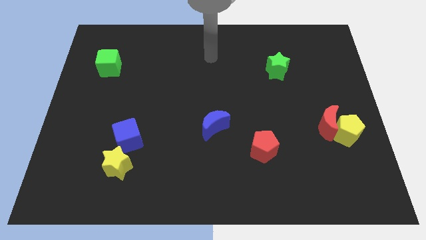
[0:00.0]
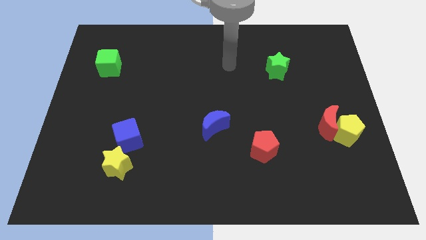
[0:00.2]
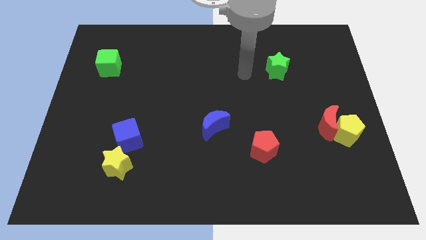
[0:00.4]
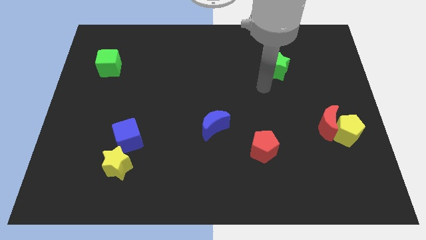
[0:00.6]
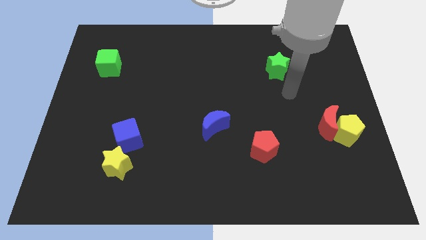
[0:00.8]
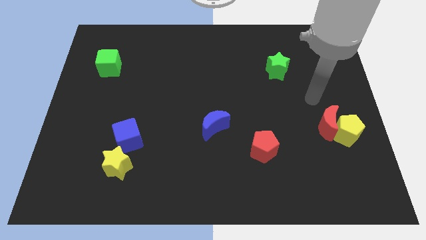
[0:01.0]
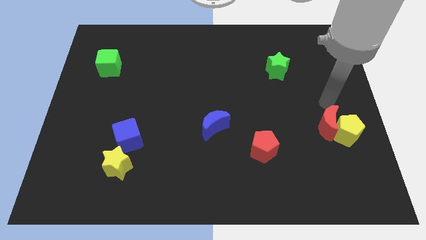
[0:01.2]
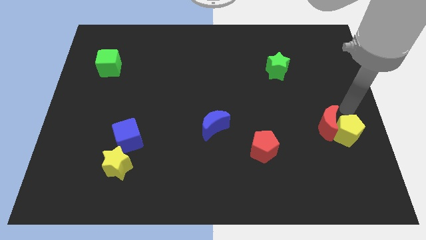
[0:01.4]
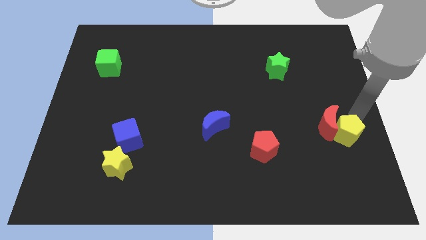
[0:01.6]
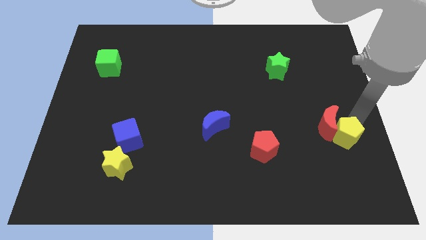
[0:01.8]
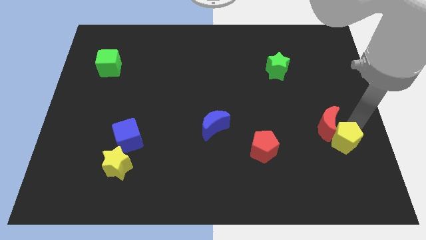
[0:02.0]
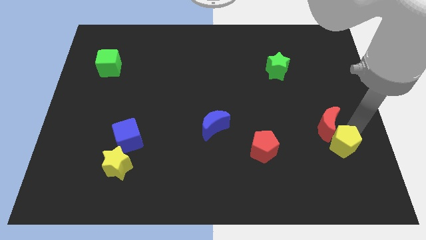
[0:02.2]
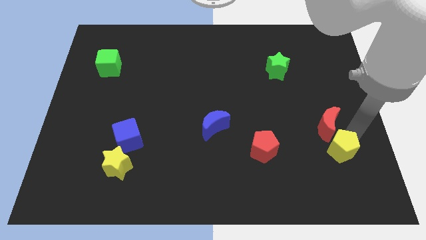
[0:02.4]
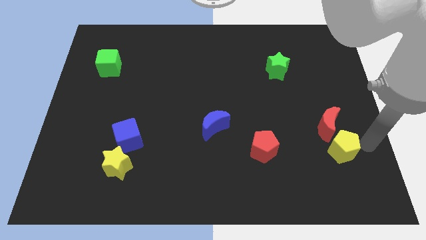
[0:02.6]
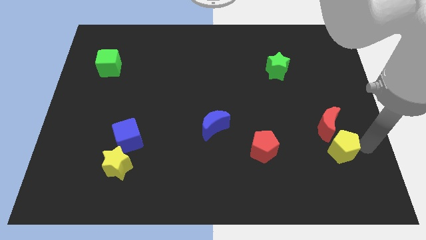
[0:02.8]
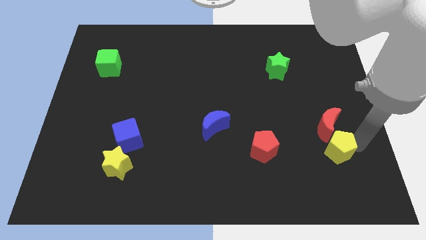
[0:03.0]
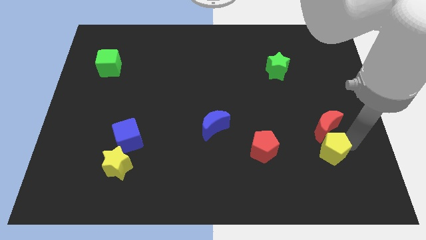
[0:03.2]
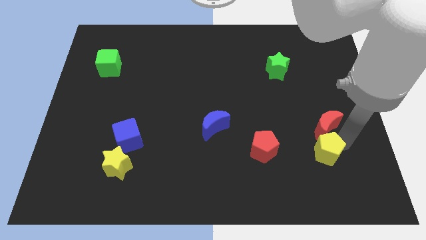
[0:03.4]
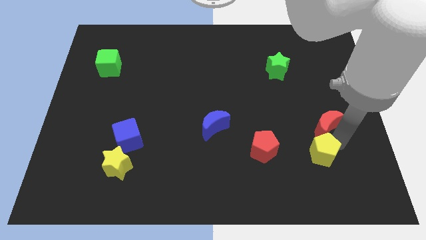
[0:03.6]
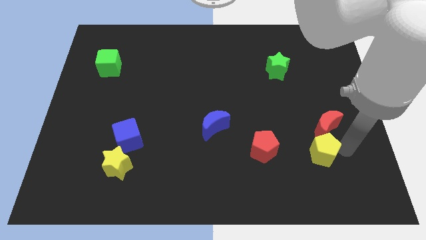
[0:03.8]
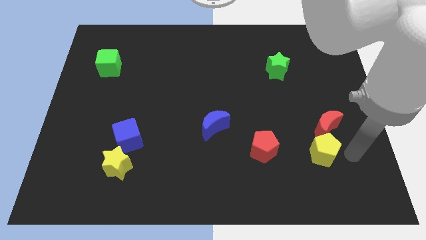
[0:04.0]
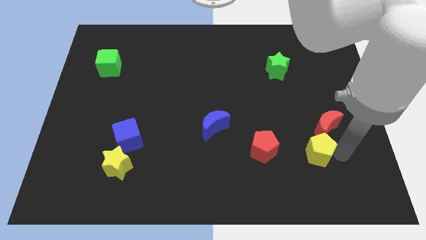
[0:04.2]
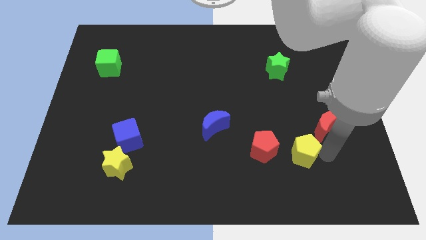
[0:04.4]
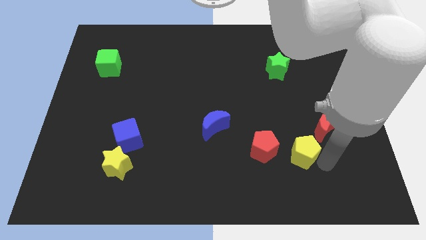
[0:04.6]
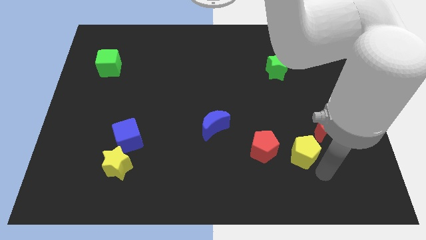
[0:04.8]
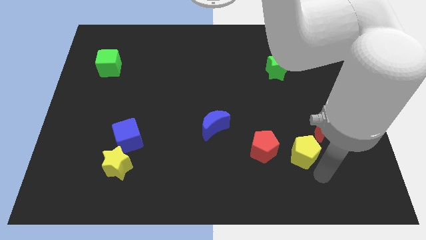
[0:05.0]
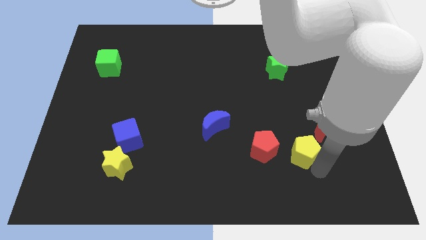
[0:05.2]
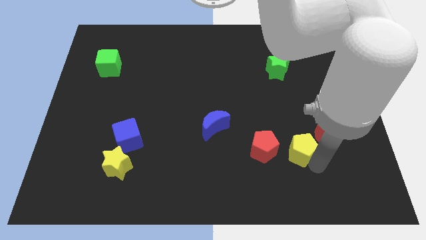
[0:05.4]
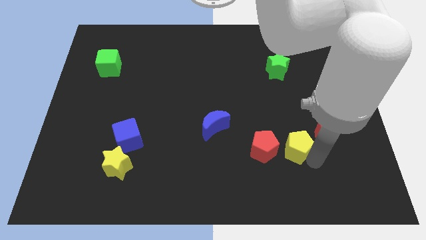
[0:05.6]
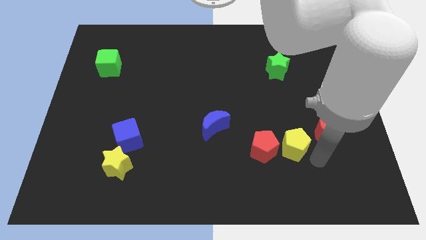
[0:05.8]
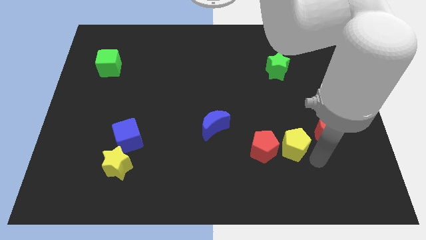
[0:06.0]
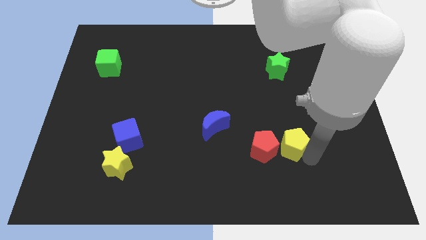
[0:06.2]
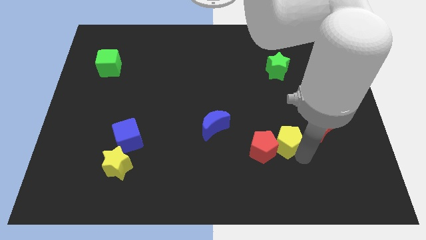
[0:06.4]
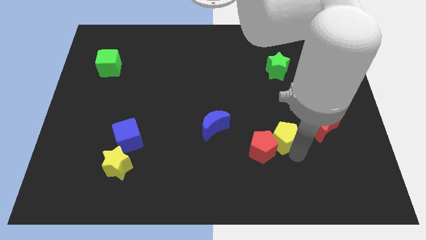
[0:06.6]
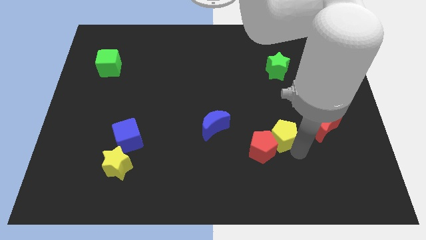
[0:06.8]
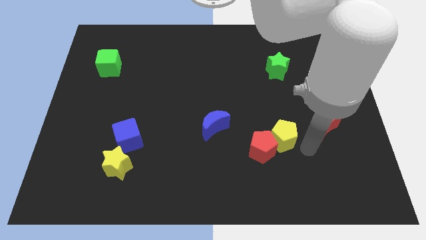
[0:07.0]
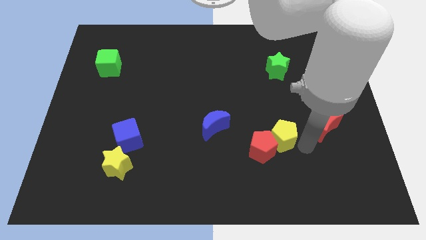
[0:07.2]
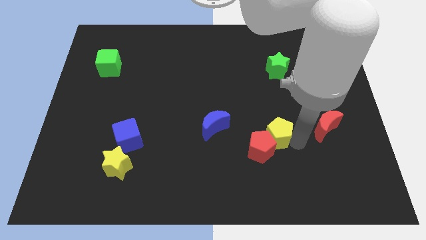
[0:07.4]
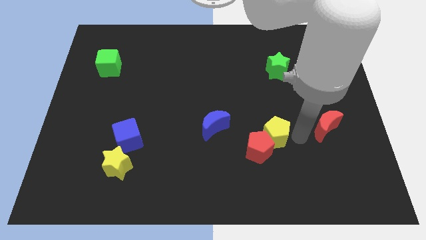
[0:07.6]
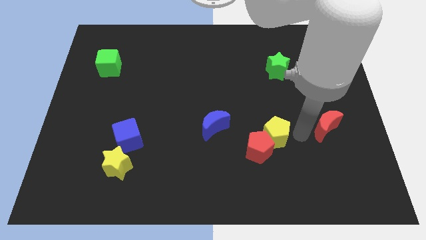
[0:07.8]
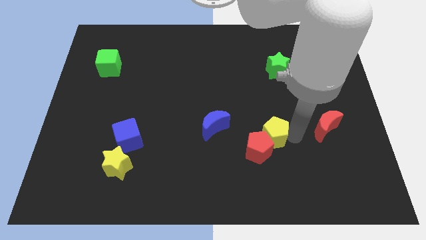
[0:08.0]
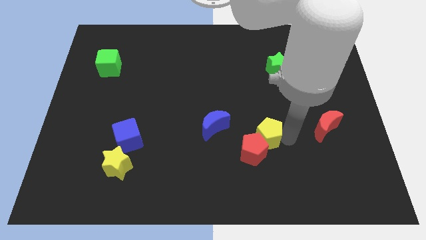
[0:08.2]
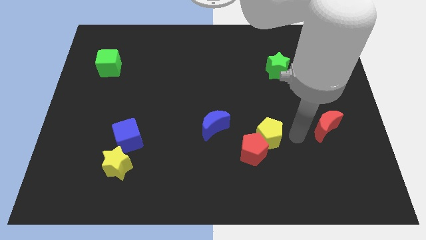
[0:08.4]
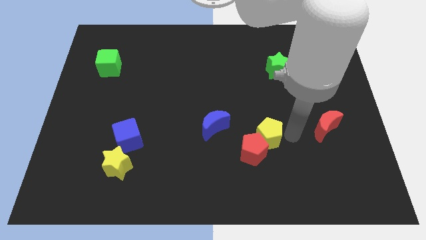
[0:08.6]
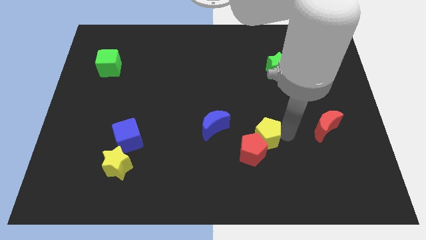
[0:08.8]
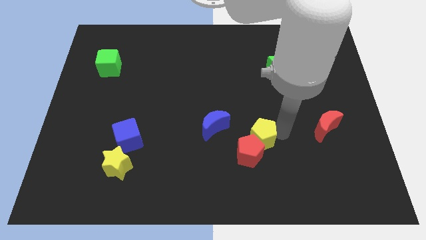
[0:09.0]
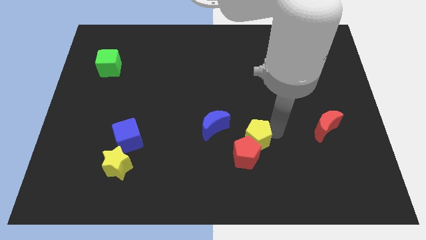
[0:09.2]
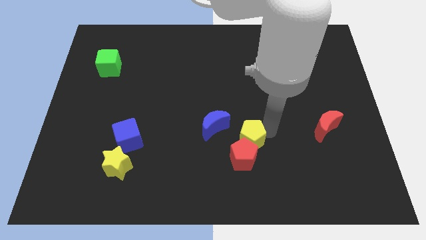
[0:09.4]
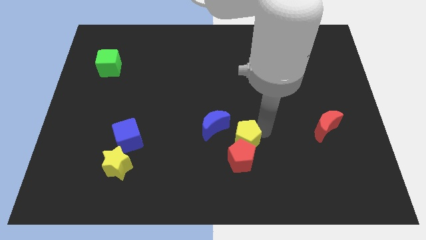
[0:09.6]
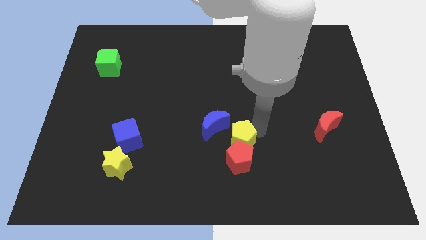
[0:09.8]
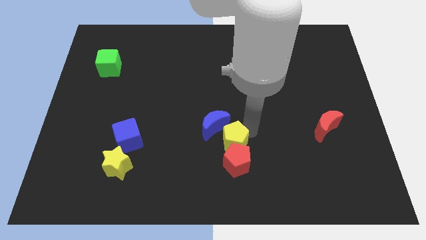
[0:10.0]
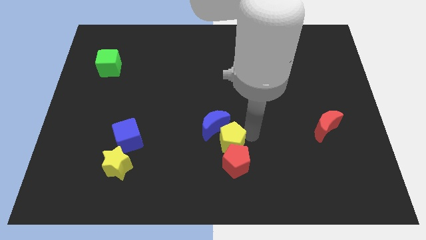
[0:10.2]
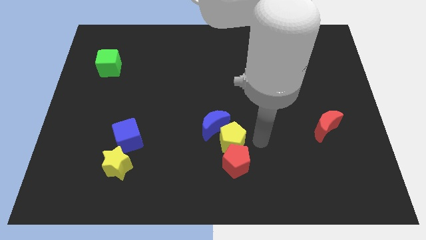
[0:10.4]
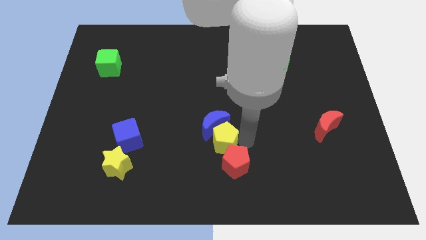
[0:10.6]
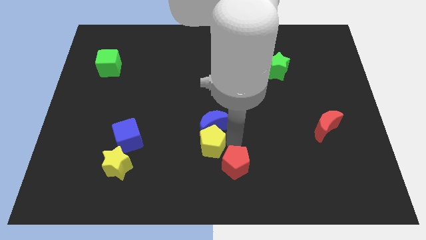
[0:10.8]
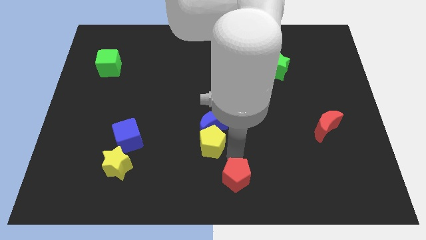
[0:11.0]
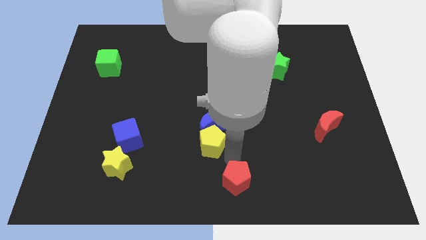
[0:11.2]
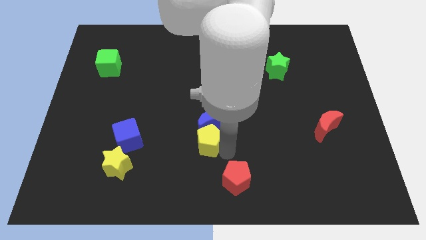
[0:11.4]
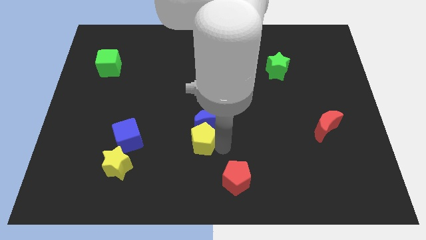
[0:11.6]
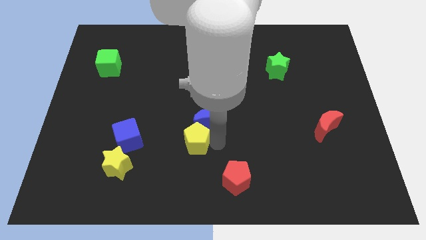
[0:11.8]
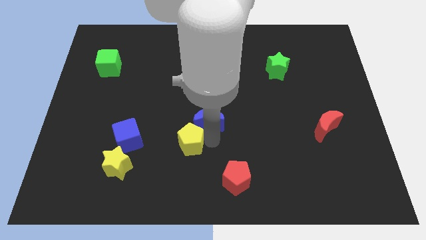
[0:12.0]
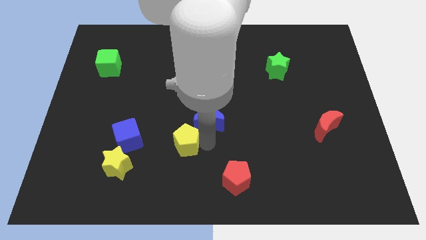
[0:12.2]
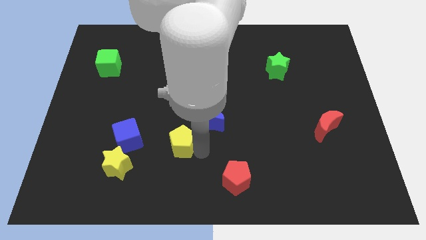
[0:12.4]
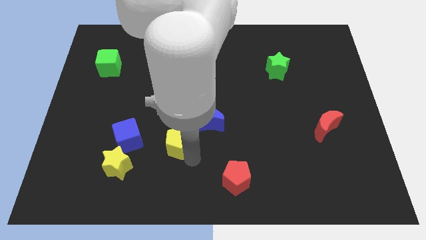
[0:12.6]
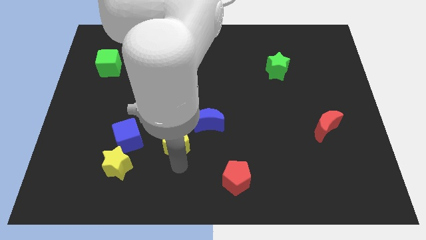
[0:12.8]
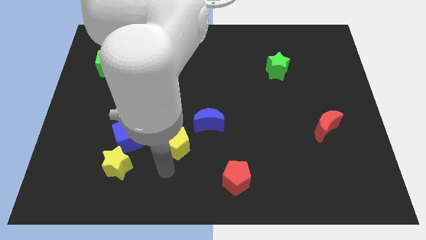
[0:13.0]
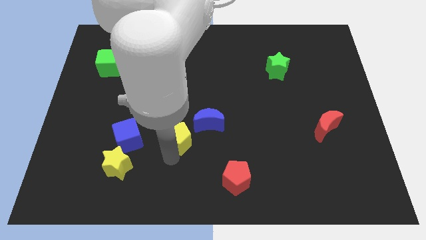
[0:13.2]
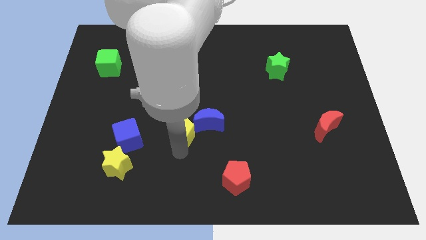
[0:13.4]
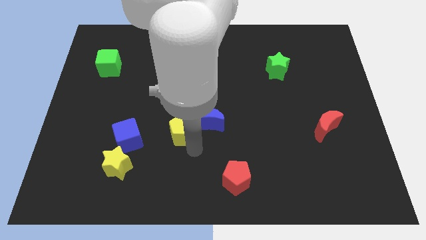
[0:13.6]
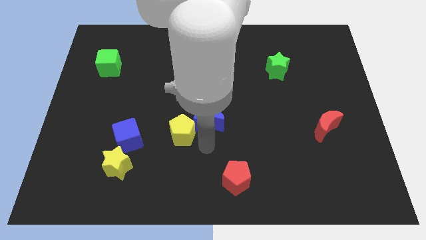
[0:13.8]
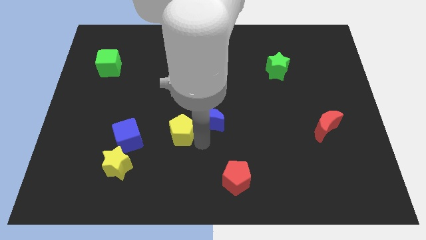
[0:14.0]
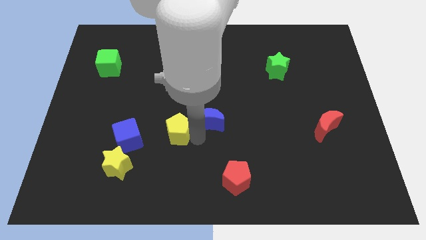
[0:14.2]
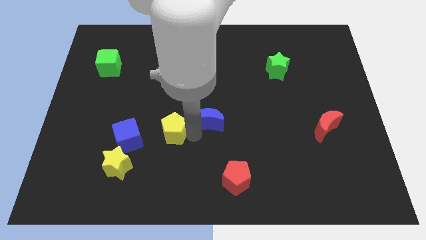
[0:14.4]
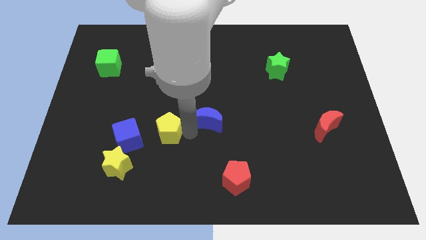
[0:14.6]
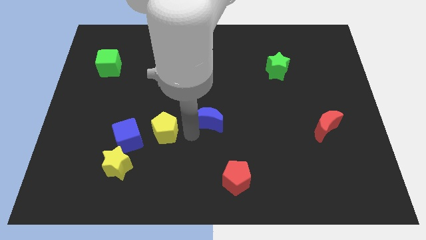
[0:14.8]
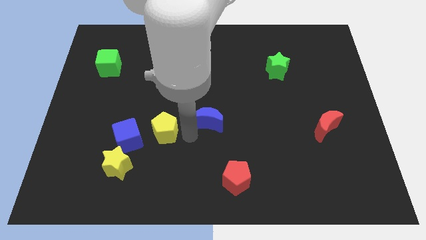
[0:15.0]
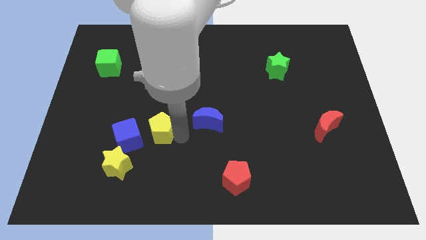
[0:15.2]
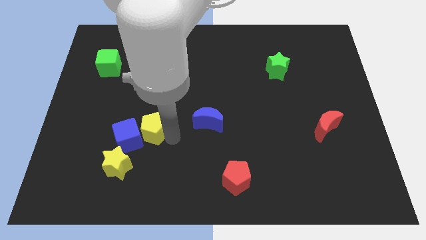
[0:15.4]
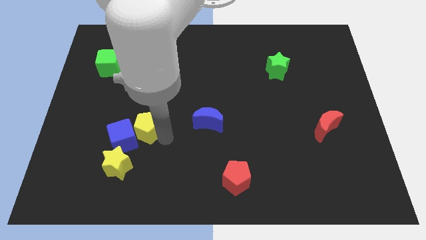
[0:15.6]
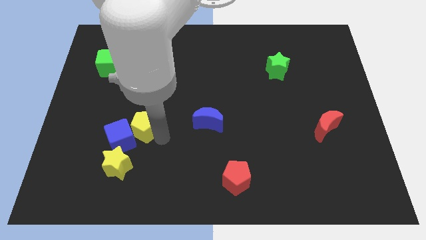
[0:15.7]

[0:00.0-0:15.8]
put the yellow pentagon to the top side of the yellow star
